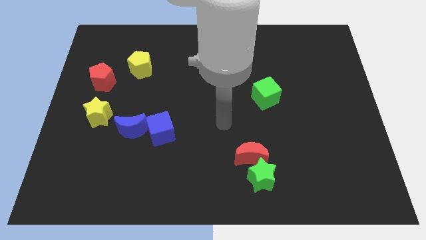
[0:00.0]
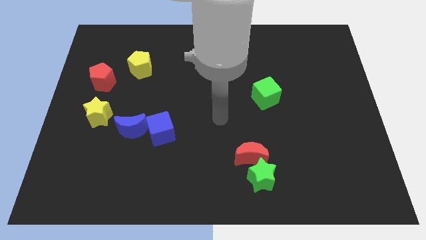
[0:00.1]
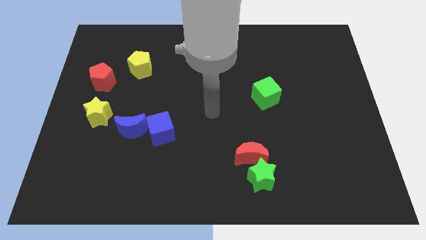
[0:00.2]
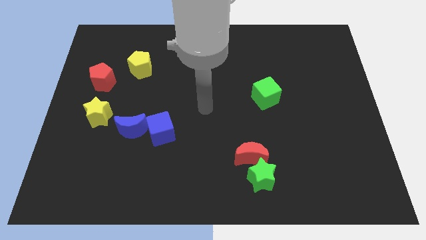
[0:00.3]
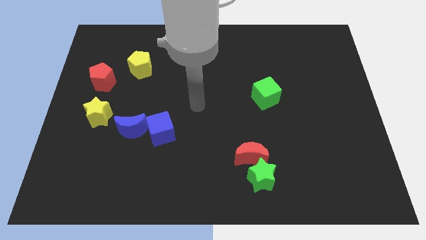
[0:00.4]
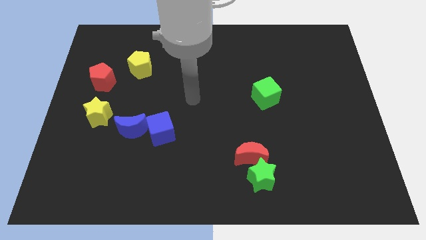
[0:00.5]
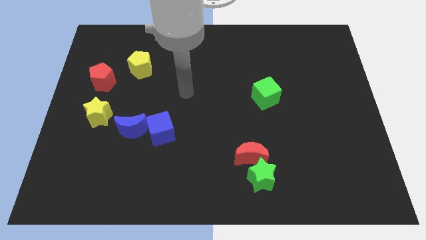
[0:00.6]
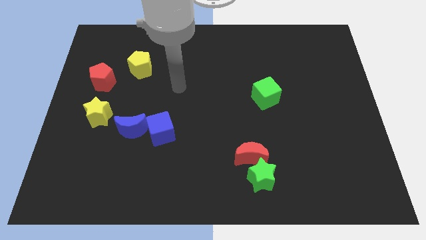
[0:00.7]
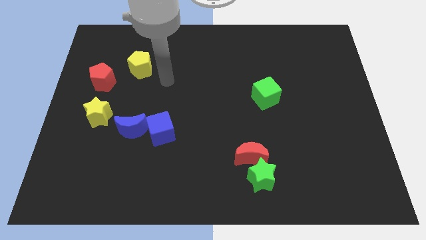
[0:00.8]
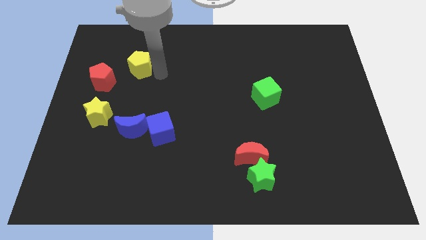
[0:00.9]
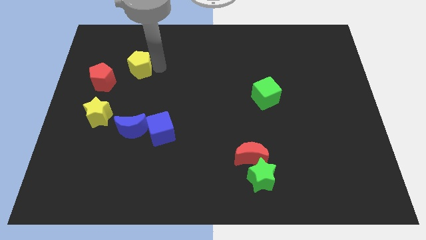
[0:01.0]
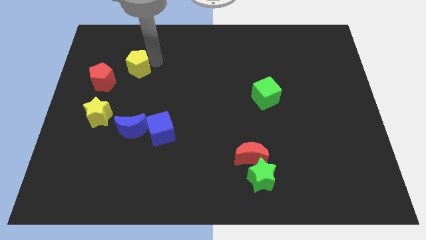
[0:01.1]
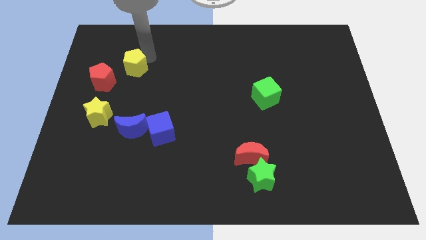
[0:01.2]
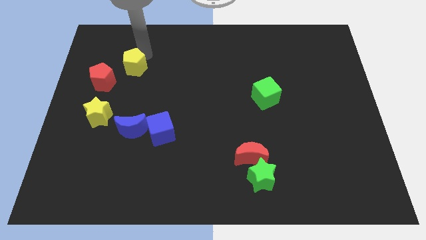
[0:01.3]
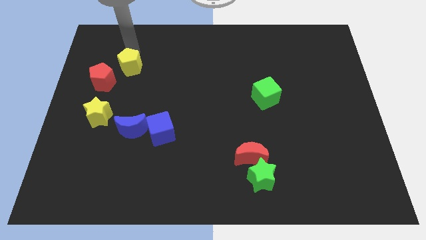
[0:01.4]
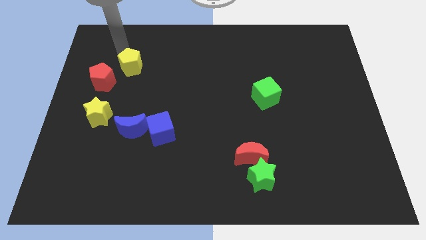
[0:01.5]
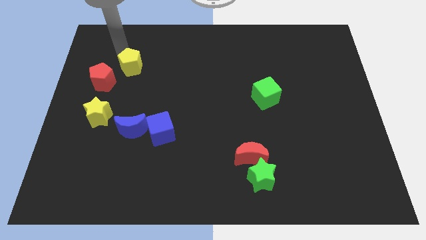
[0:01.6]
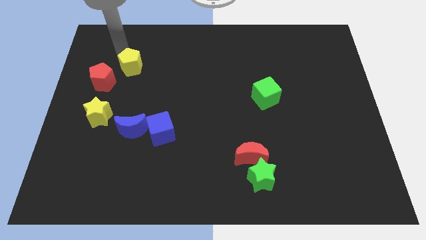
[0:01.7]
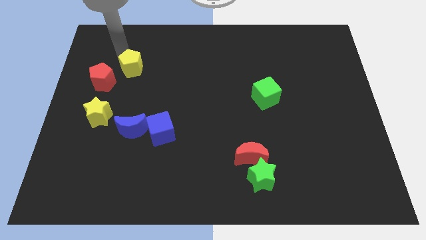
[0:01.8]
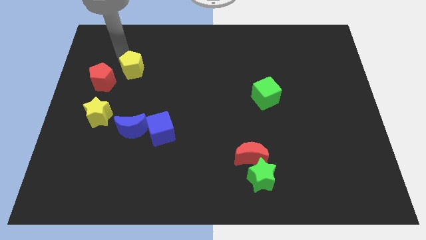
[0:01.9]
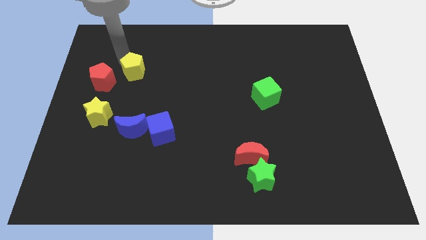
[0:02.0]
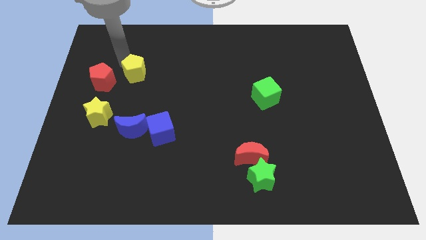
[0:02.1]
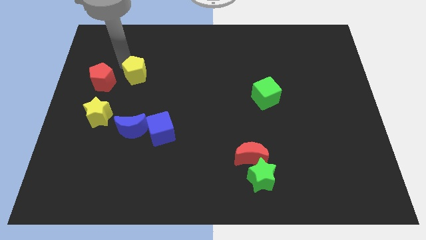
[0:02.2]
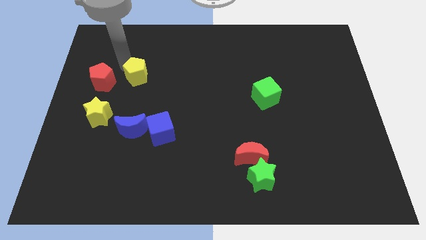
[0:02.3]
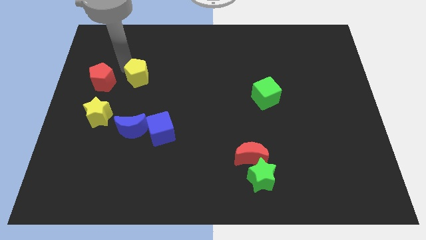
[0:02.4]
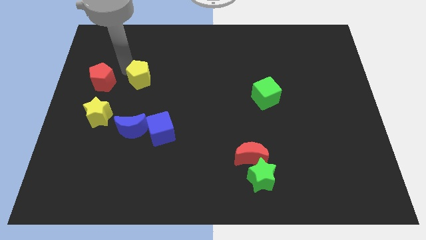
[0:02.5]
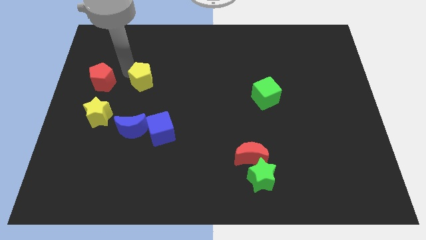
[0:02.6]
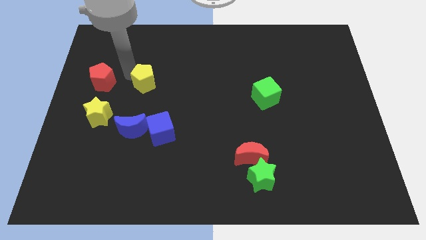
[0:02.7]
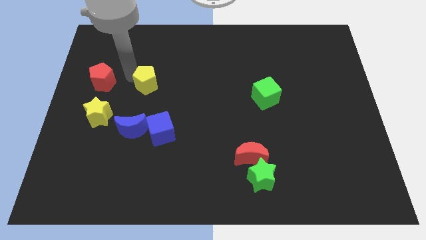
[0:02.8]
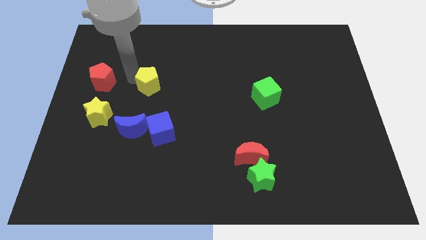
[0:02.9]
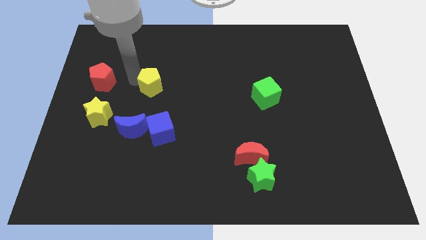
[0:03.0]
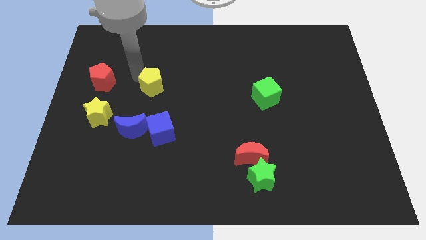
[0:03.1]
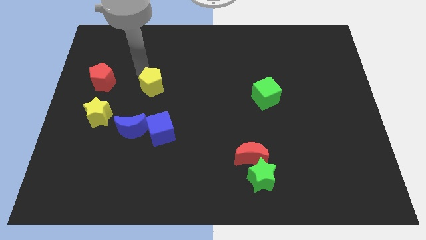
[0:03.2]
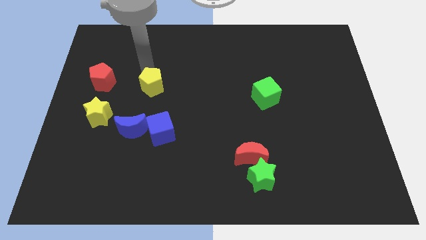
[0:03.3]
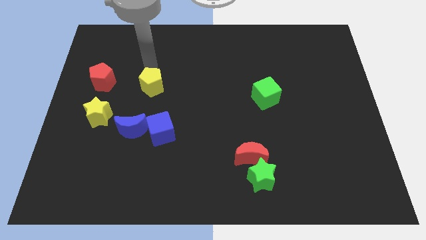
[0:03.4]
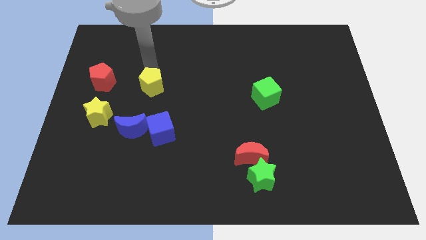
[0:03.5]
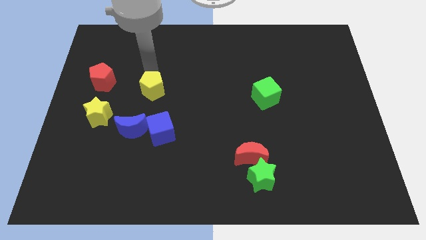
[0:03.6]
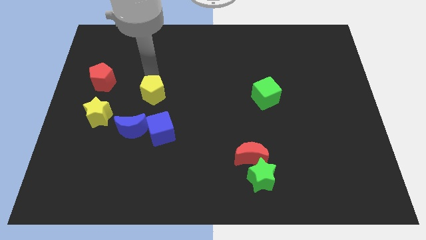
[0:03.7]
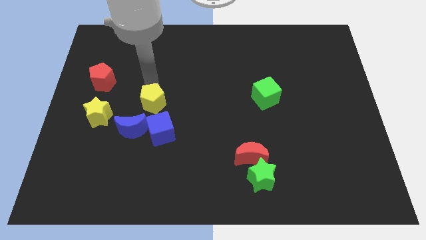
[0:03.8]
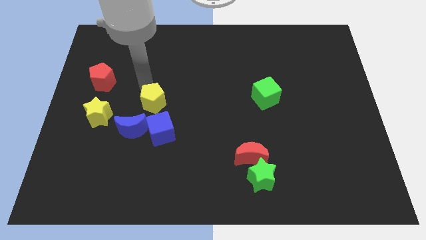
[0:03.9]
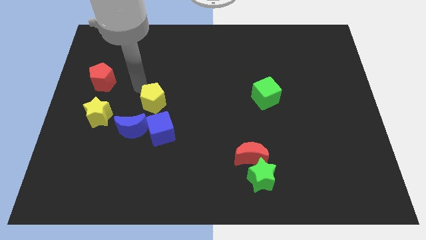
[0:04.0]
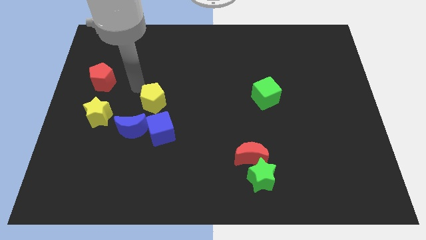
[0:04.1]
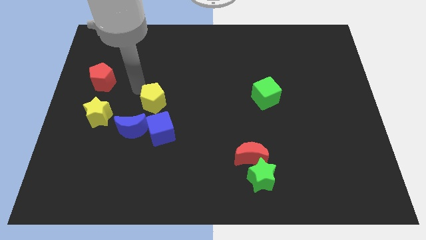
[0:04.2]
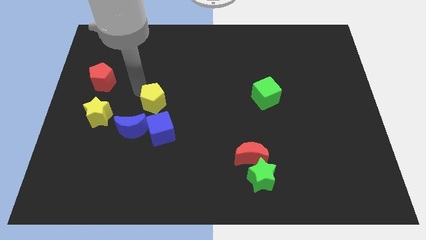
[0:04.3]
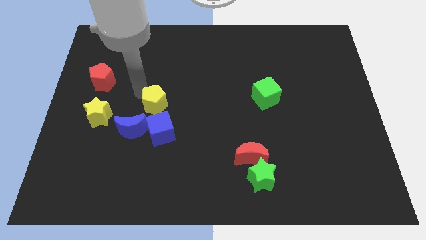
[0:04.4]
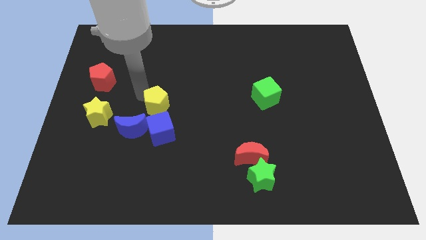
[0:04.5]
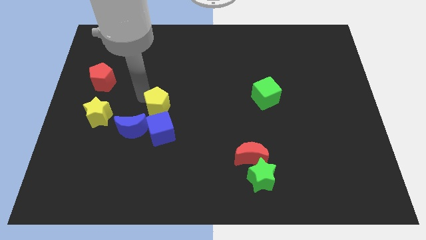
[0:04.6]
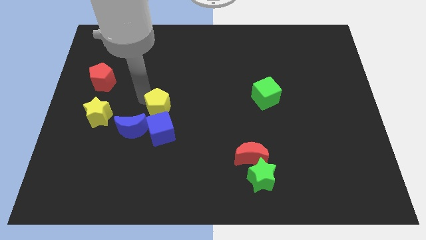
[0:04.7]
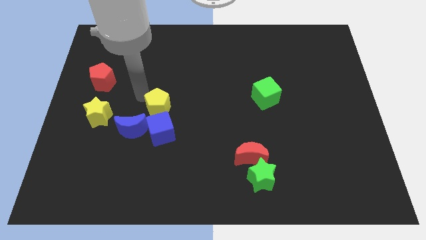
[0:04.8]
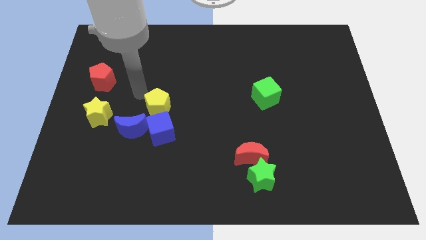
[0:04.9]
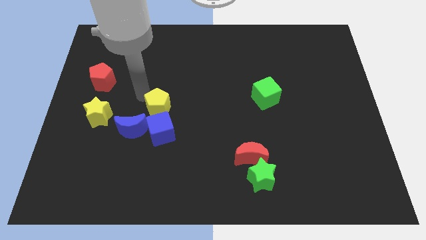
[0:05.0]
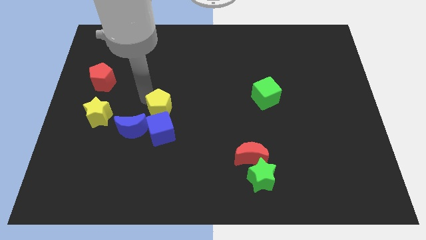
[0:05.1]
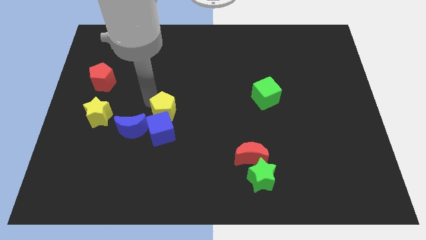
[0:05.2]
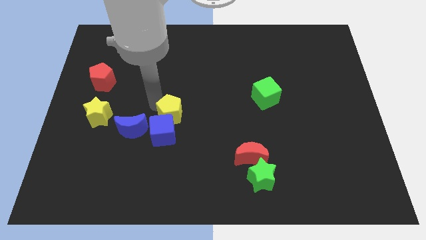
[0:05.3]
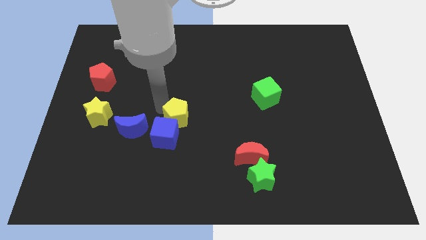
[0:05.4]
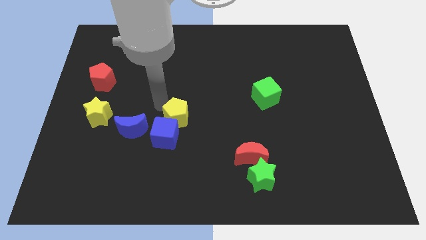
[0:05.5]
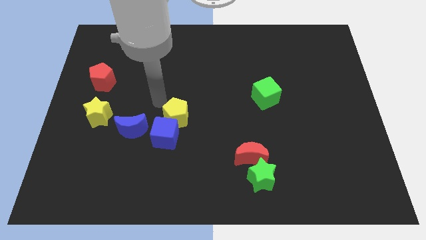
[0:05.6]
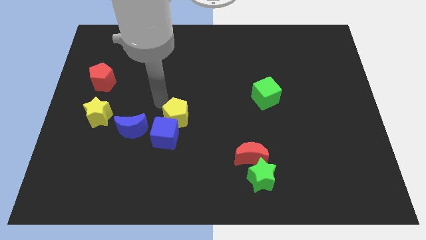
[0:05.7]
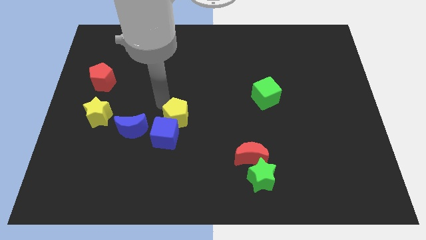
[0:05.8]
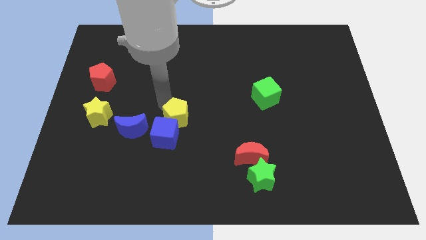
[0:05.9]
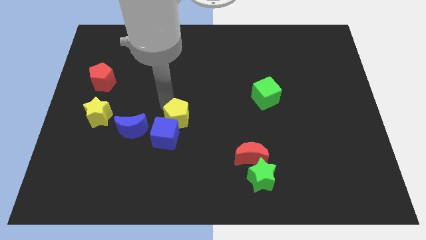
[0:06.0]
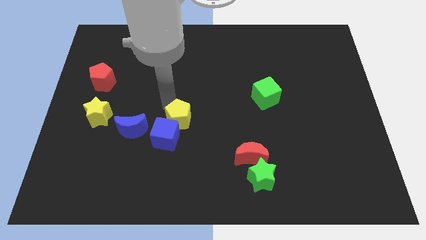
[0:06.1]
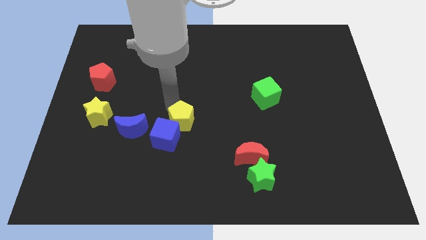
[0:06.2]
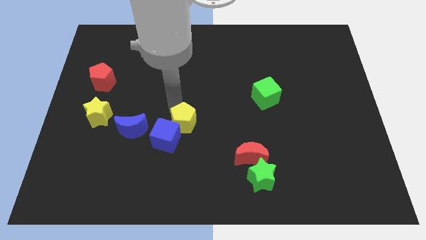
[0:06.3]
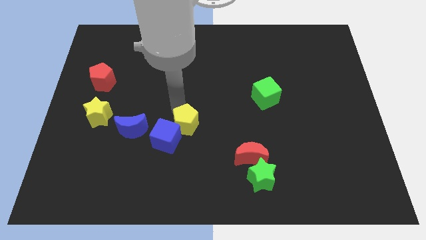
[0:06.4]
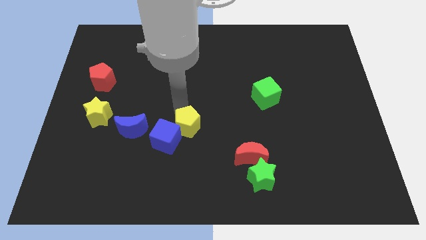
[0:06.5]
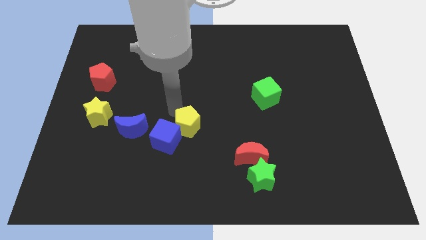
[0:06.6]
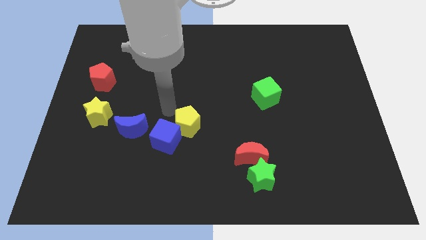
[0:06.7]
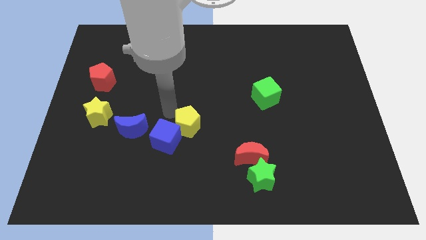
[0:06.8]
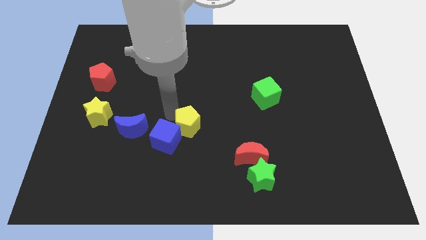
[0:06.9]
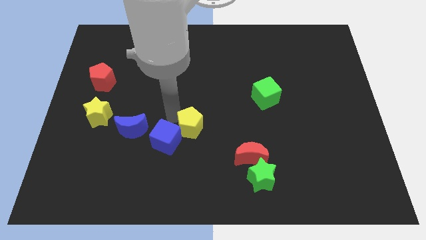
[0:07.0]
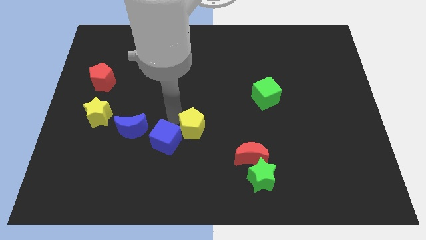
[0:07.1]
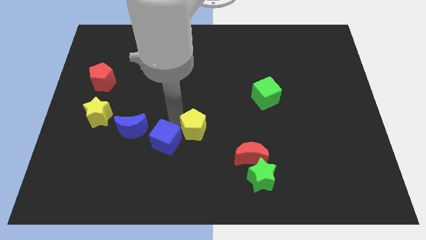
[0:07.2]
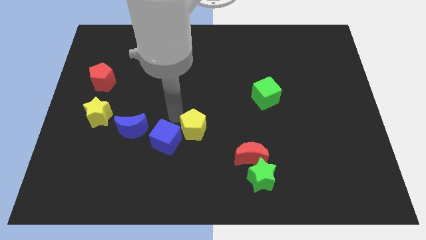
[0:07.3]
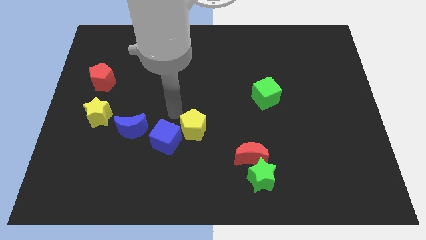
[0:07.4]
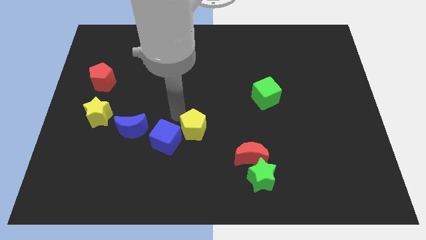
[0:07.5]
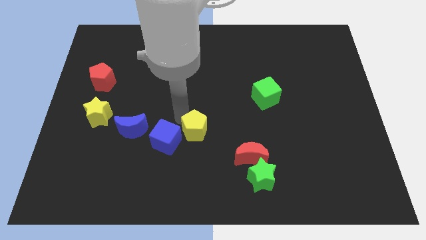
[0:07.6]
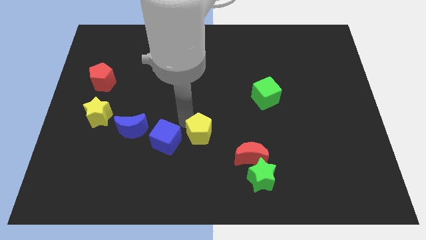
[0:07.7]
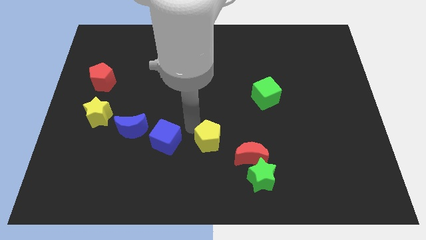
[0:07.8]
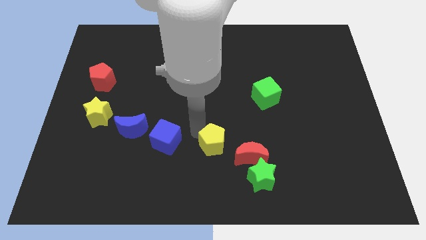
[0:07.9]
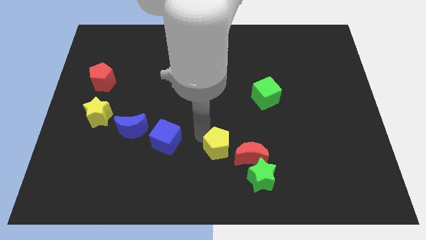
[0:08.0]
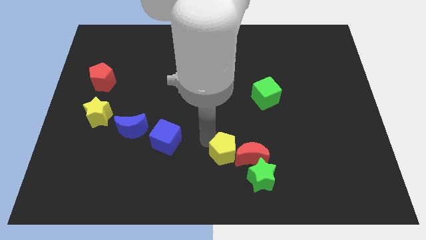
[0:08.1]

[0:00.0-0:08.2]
put the yellow pentagon to the red moon
